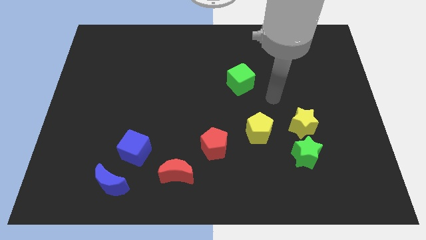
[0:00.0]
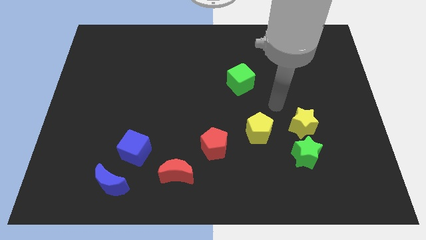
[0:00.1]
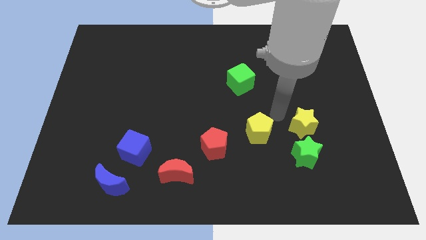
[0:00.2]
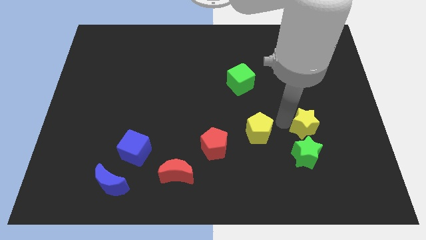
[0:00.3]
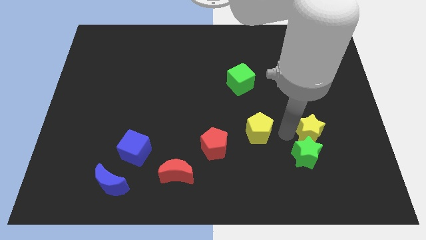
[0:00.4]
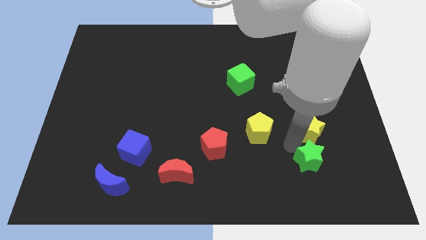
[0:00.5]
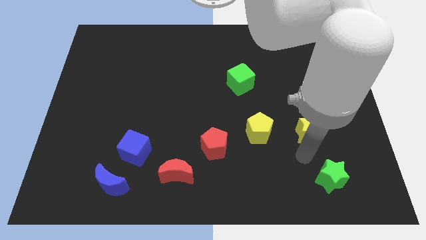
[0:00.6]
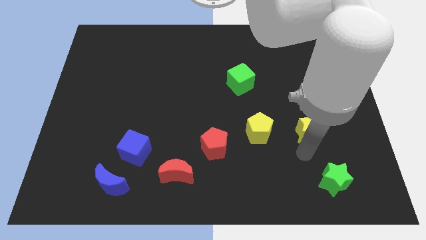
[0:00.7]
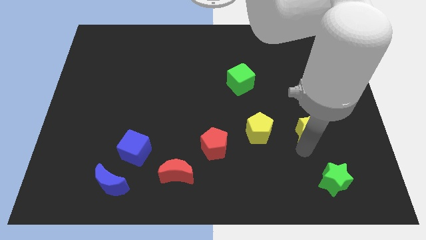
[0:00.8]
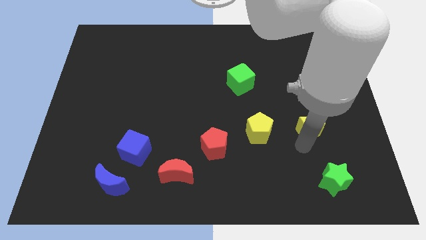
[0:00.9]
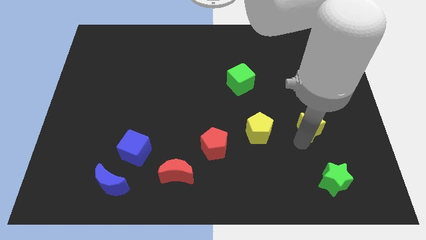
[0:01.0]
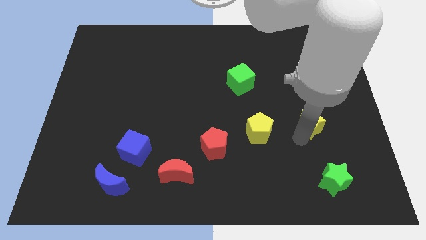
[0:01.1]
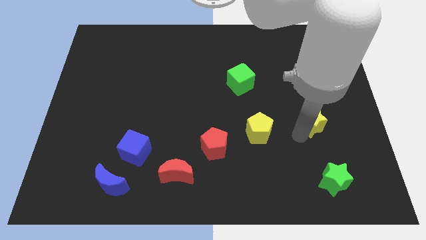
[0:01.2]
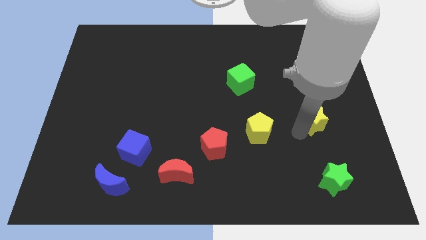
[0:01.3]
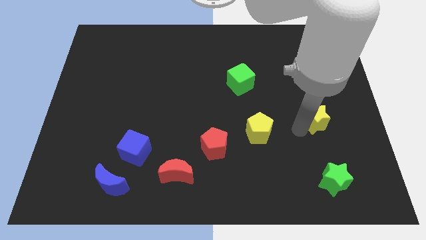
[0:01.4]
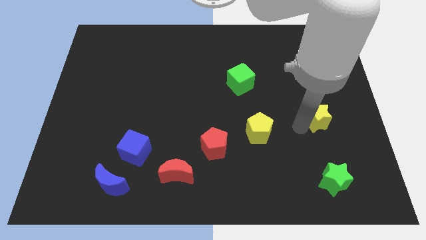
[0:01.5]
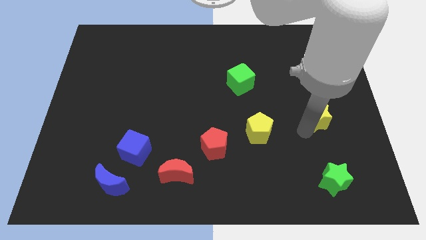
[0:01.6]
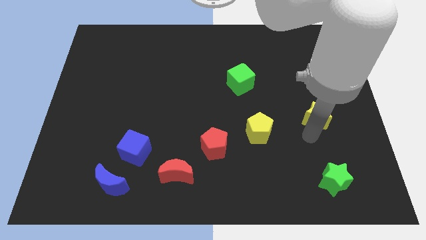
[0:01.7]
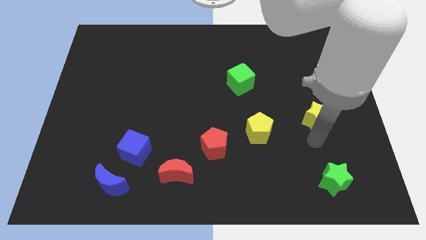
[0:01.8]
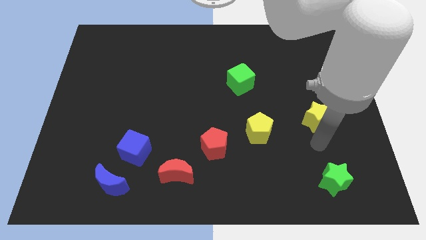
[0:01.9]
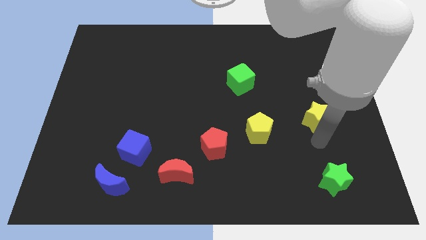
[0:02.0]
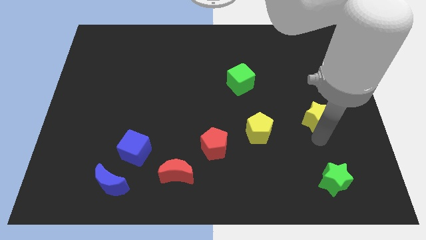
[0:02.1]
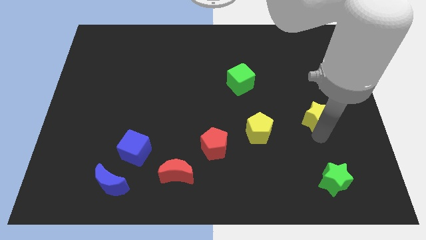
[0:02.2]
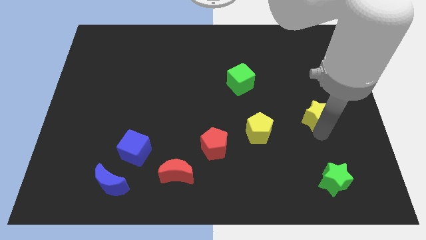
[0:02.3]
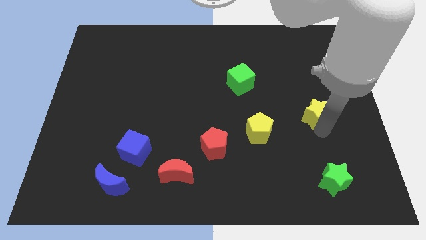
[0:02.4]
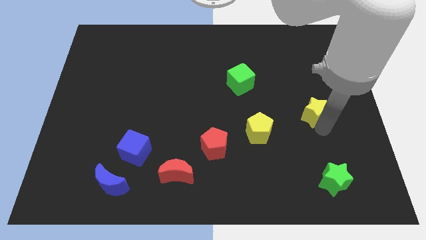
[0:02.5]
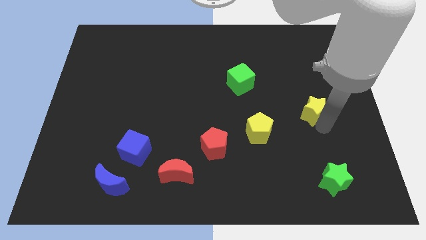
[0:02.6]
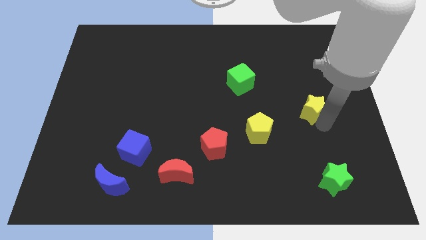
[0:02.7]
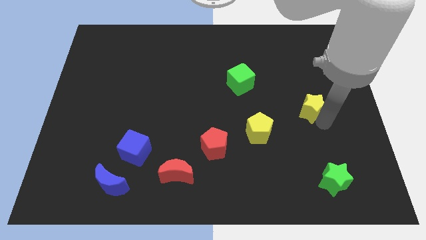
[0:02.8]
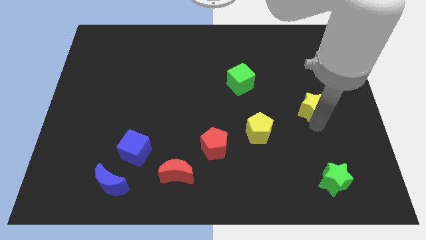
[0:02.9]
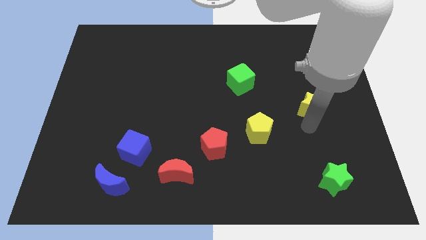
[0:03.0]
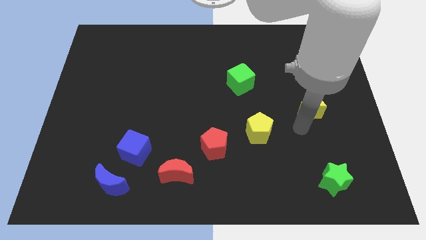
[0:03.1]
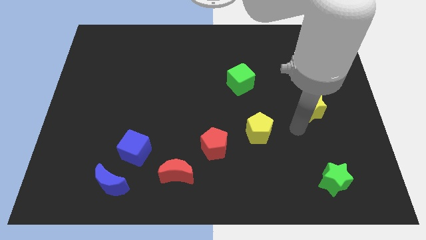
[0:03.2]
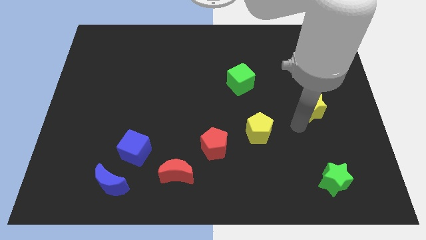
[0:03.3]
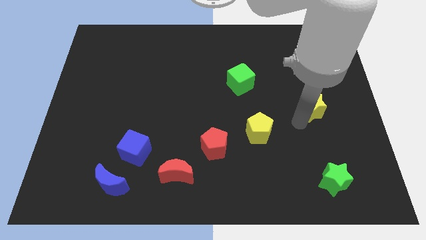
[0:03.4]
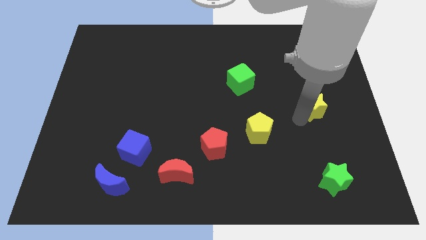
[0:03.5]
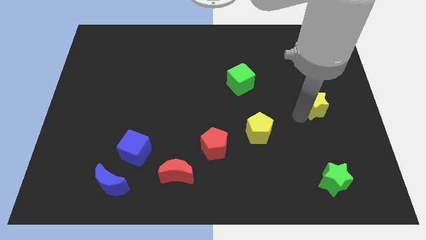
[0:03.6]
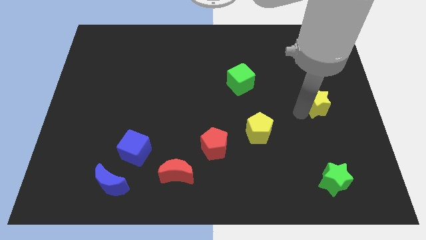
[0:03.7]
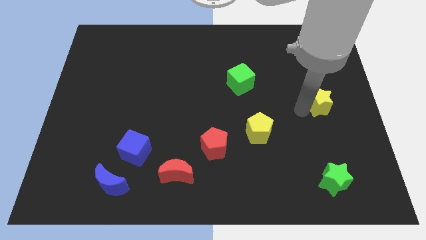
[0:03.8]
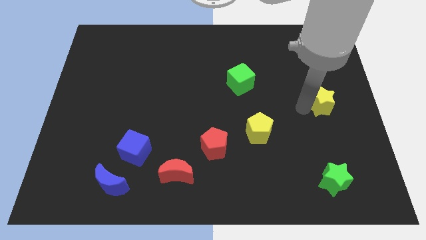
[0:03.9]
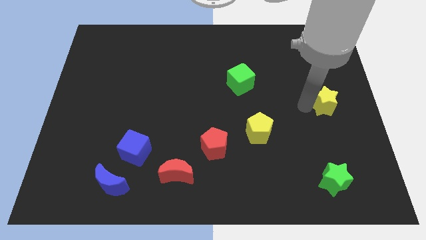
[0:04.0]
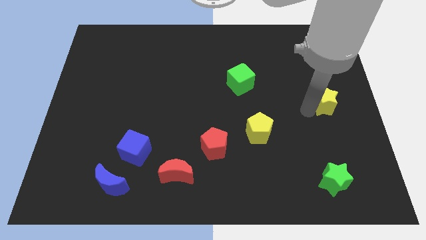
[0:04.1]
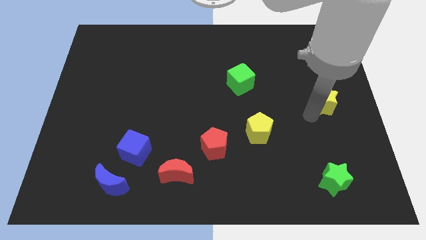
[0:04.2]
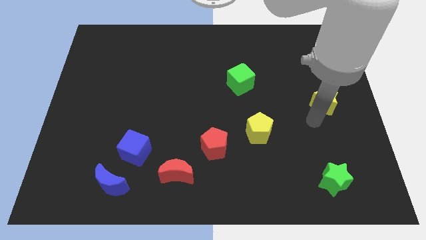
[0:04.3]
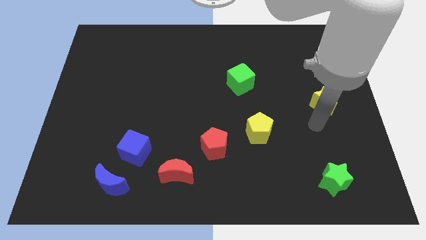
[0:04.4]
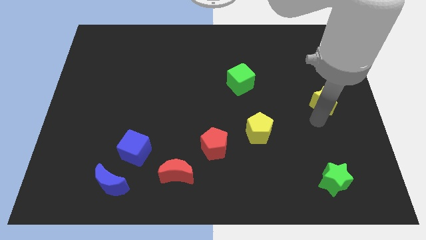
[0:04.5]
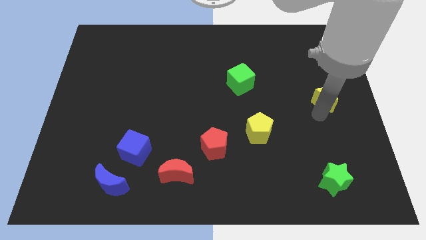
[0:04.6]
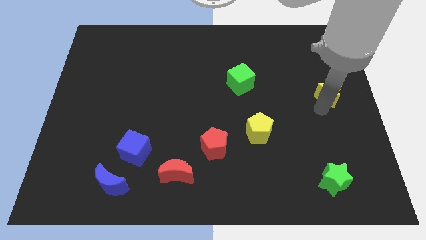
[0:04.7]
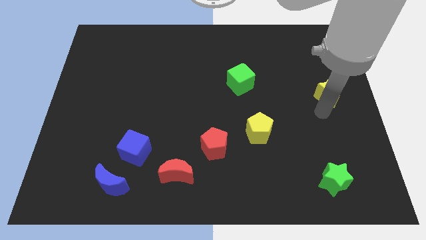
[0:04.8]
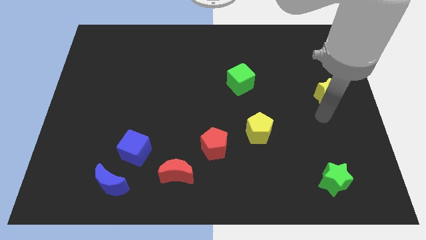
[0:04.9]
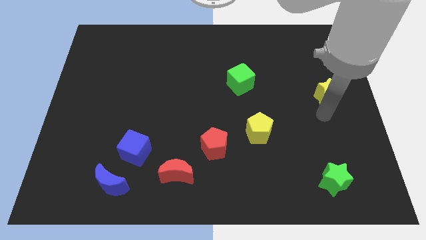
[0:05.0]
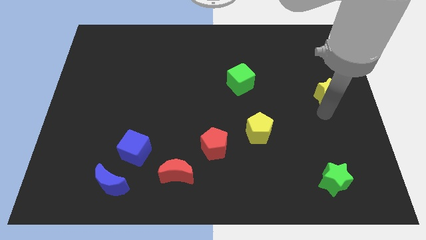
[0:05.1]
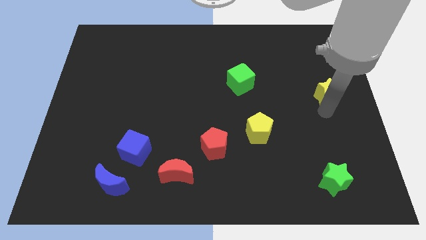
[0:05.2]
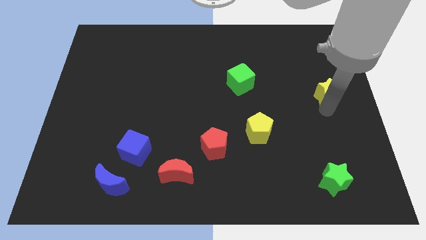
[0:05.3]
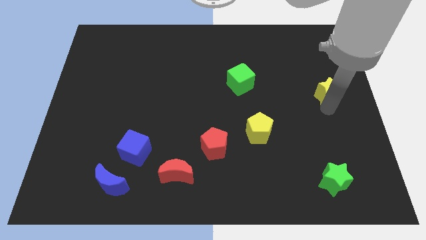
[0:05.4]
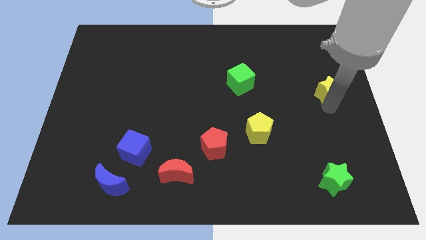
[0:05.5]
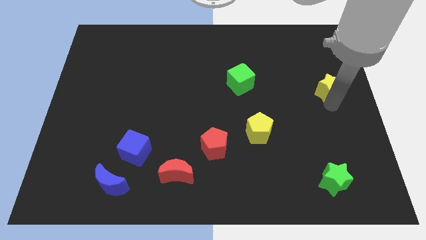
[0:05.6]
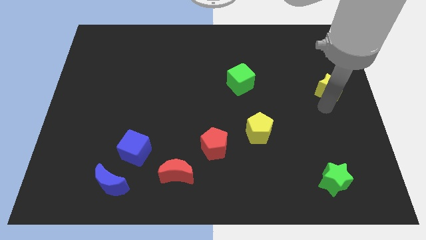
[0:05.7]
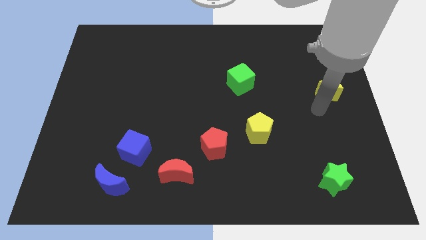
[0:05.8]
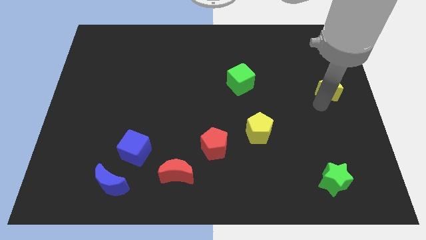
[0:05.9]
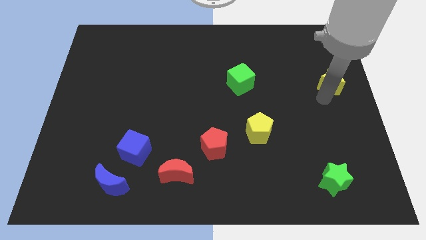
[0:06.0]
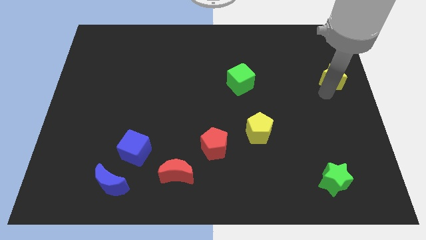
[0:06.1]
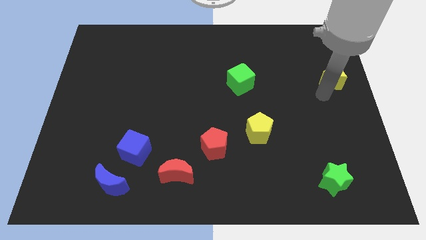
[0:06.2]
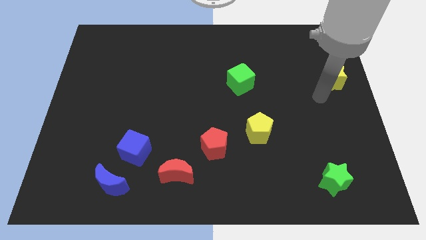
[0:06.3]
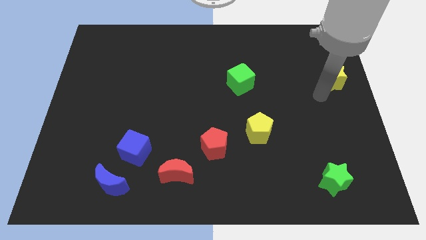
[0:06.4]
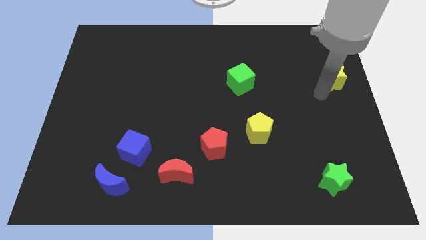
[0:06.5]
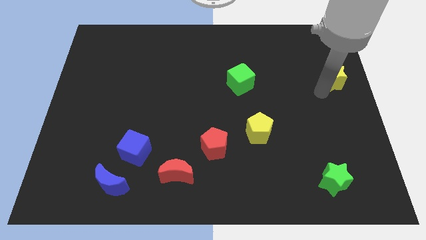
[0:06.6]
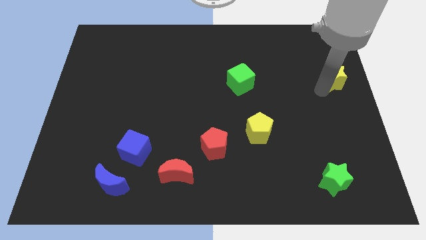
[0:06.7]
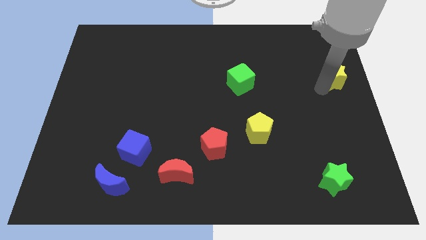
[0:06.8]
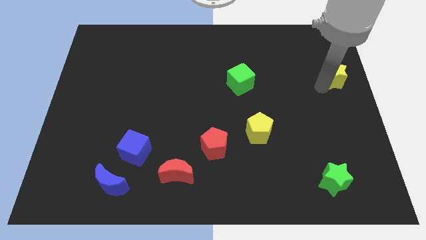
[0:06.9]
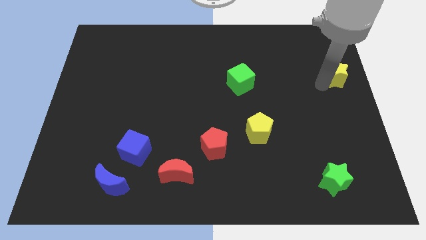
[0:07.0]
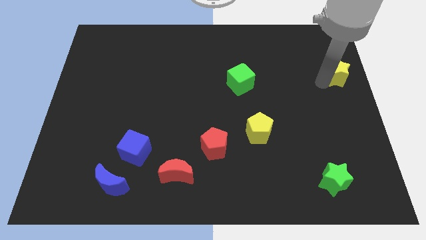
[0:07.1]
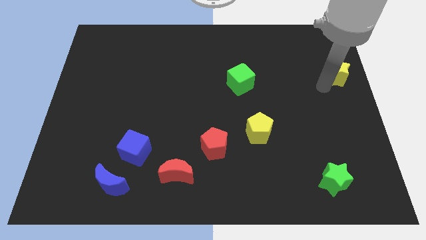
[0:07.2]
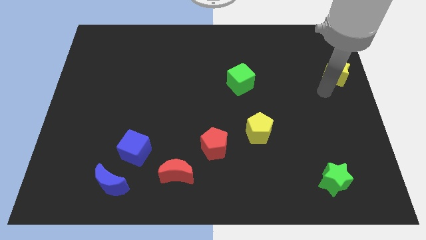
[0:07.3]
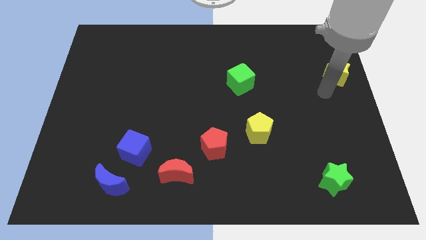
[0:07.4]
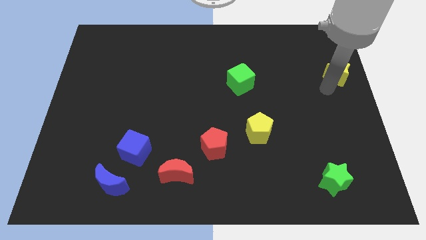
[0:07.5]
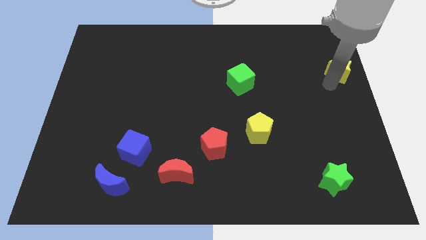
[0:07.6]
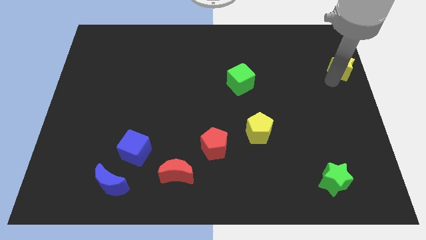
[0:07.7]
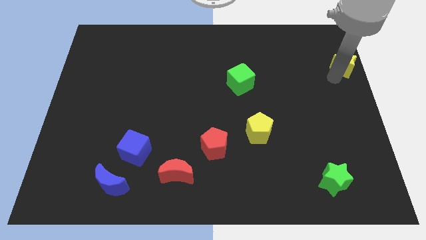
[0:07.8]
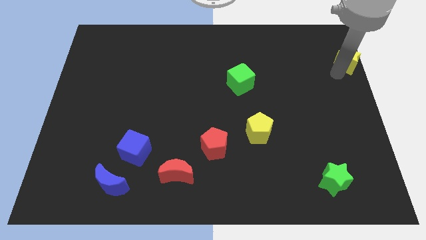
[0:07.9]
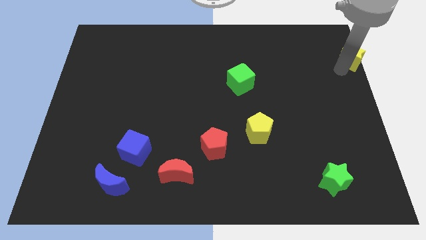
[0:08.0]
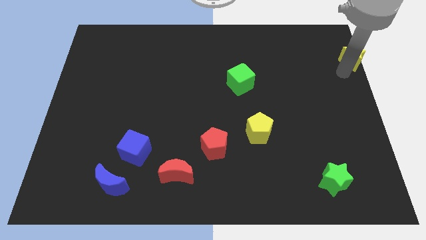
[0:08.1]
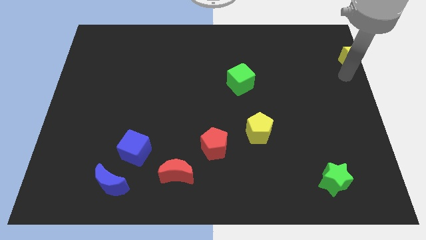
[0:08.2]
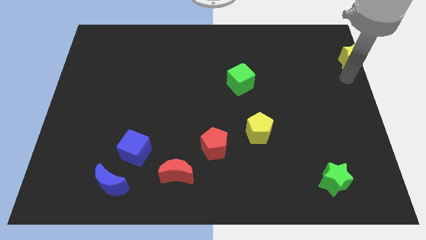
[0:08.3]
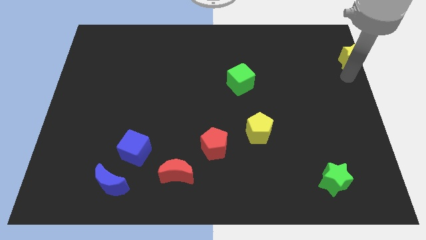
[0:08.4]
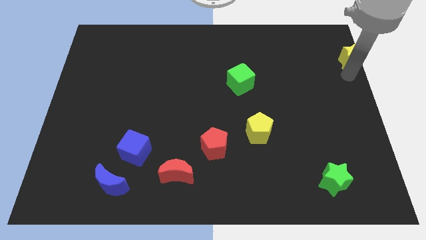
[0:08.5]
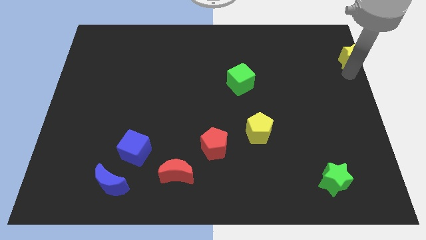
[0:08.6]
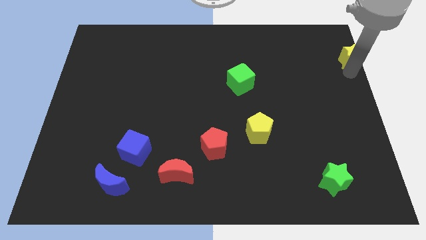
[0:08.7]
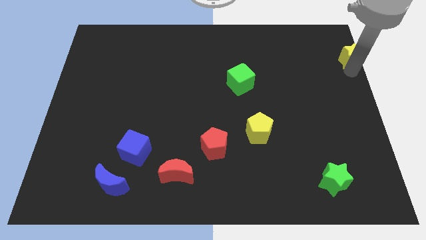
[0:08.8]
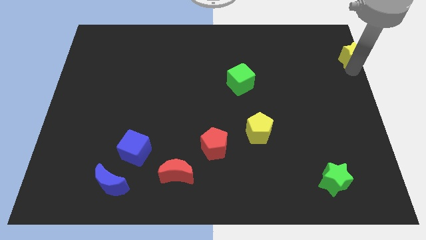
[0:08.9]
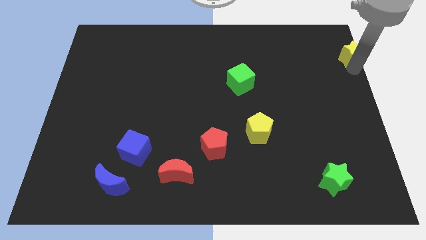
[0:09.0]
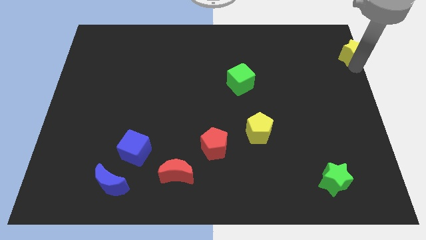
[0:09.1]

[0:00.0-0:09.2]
push the yellow star to the top right of the board
